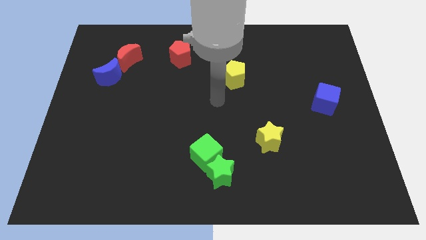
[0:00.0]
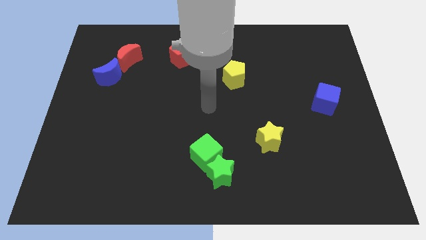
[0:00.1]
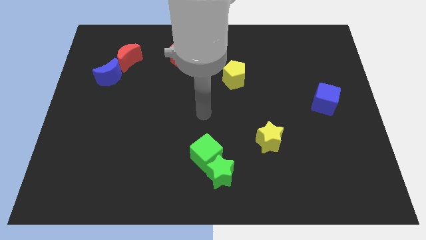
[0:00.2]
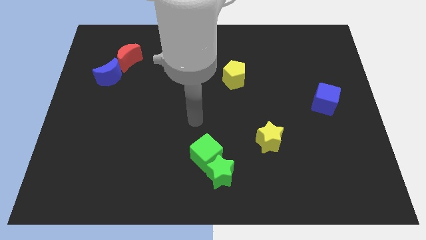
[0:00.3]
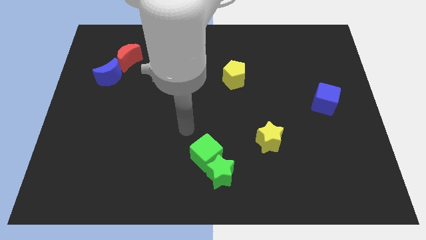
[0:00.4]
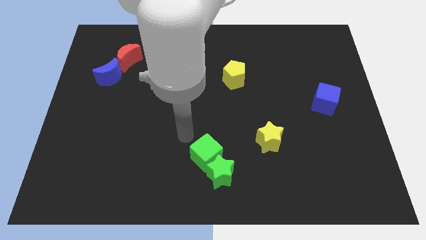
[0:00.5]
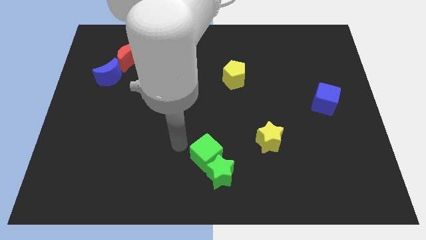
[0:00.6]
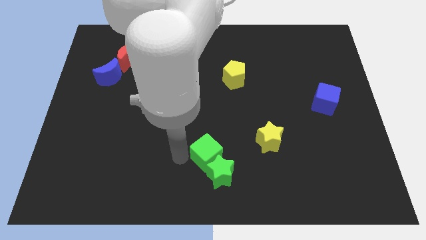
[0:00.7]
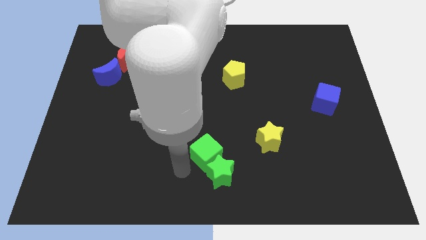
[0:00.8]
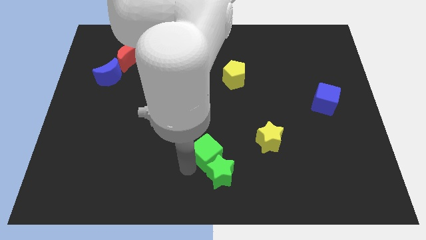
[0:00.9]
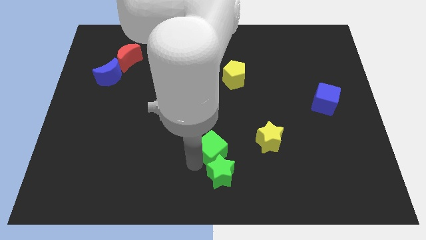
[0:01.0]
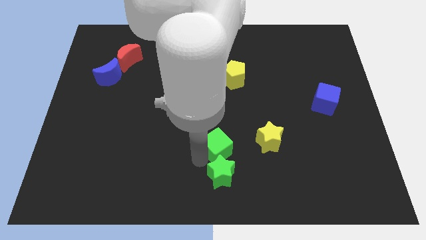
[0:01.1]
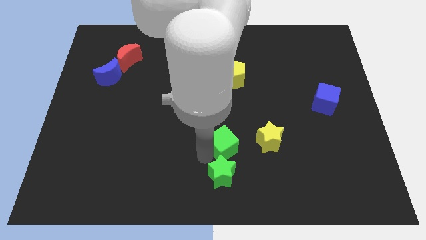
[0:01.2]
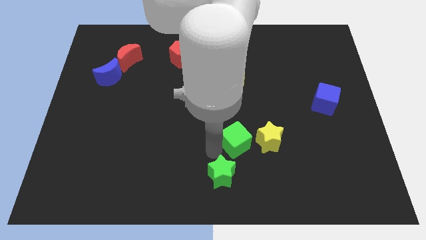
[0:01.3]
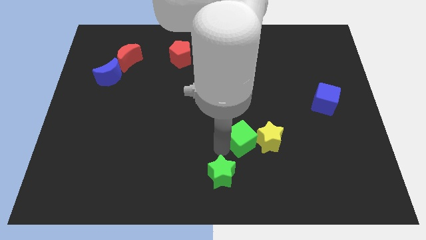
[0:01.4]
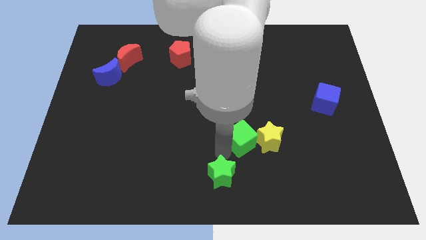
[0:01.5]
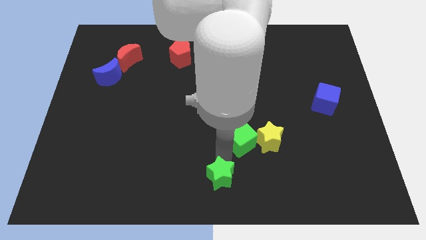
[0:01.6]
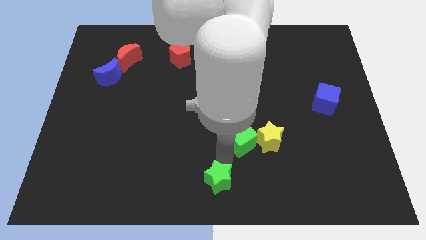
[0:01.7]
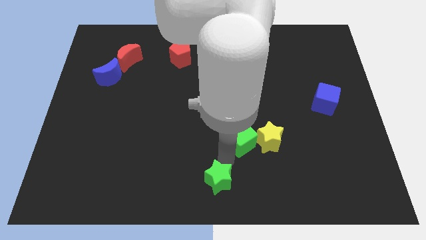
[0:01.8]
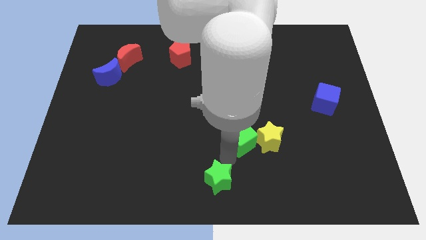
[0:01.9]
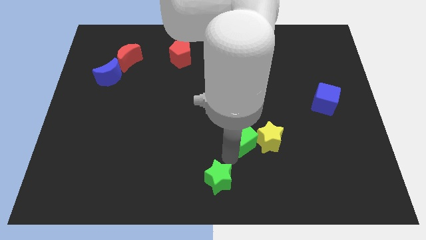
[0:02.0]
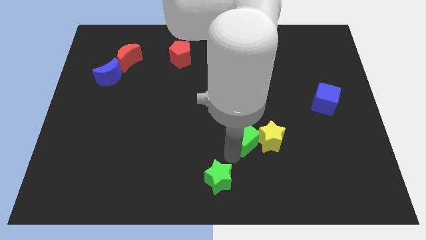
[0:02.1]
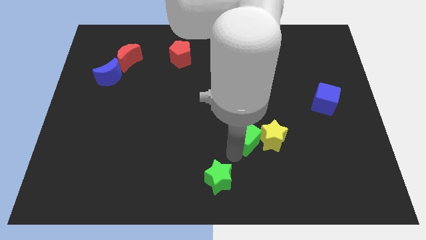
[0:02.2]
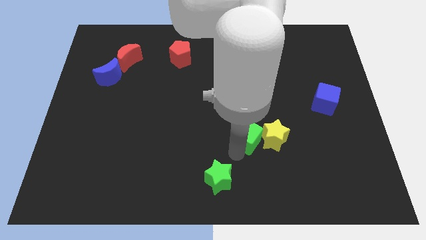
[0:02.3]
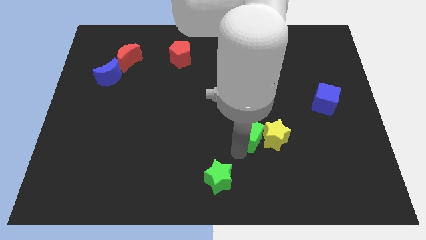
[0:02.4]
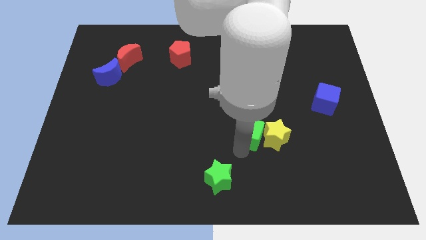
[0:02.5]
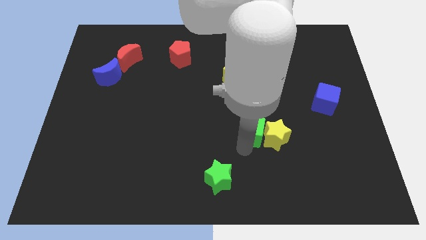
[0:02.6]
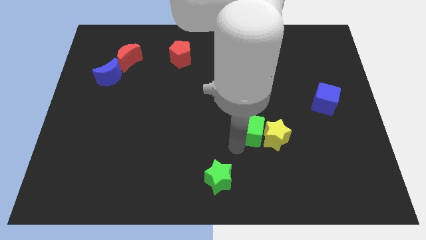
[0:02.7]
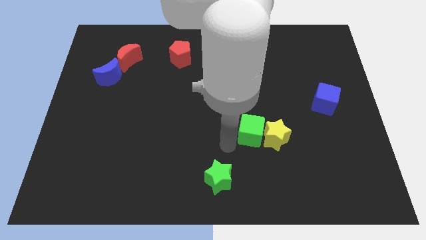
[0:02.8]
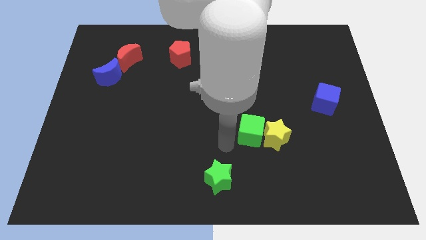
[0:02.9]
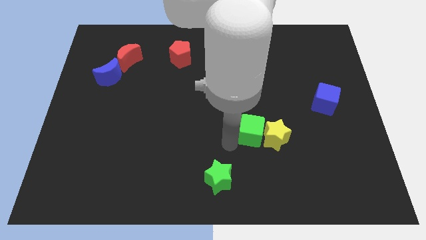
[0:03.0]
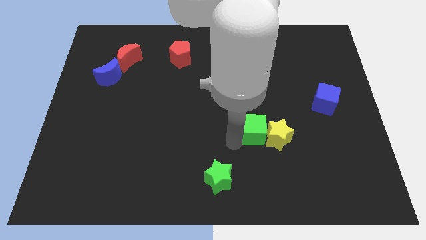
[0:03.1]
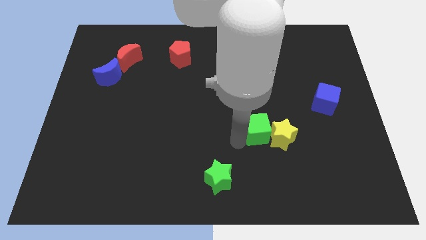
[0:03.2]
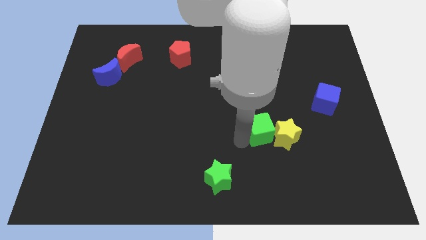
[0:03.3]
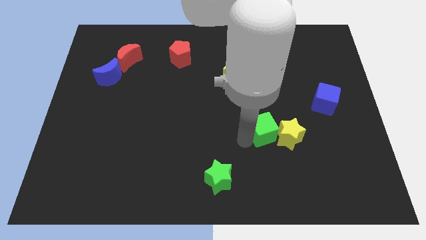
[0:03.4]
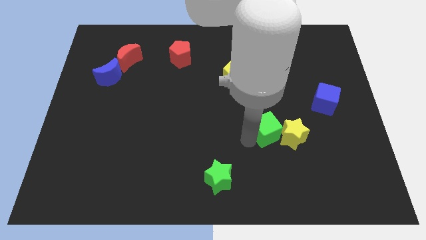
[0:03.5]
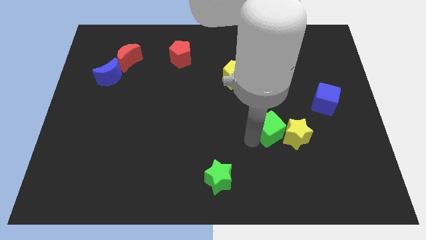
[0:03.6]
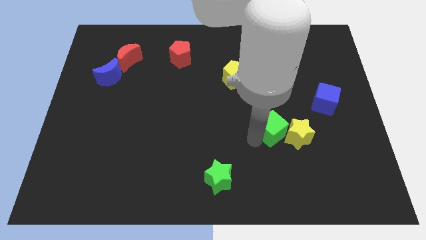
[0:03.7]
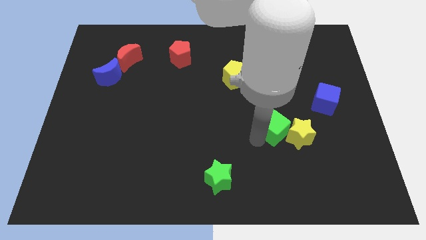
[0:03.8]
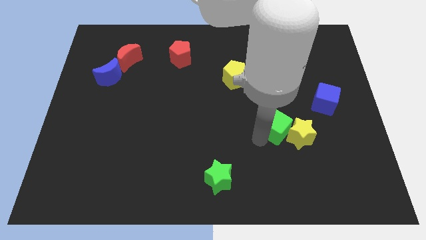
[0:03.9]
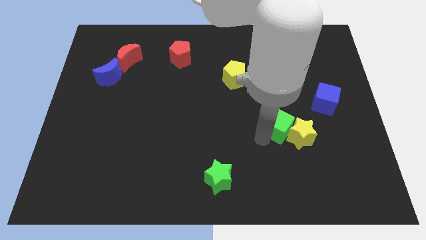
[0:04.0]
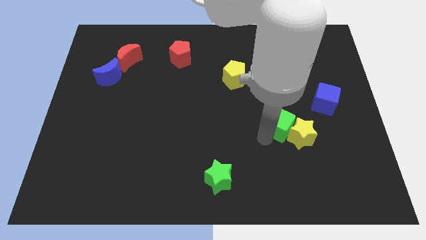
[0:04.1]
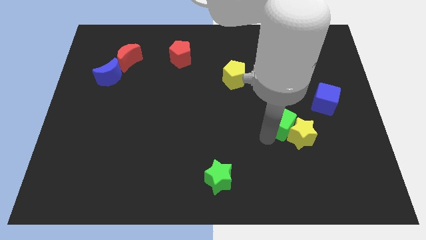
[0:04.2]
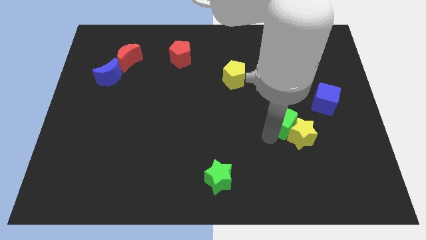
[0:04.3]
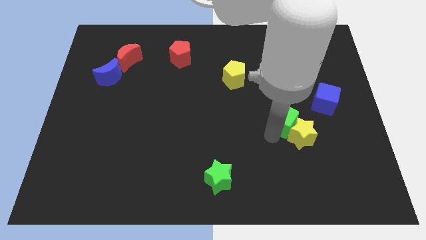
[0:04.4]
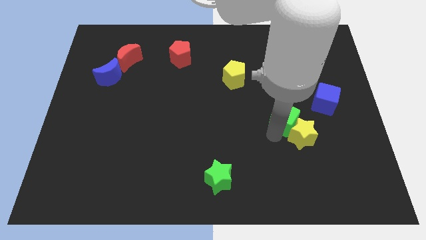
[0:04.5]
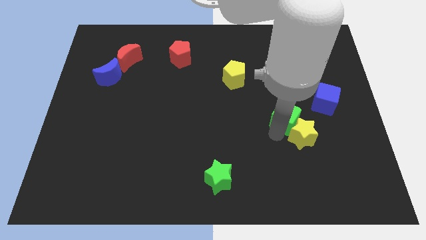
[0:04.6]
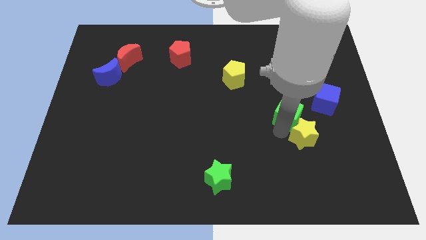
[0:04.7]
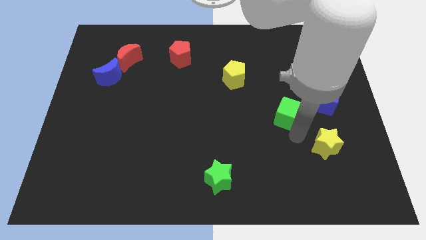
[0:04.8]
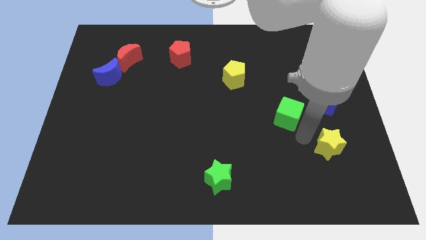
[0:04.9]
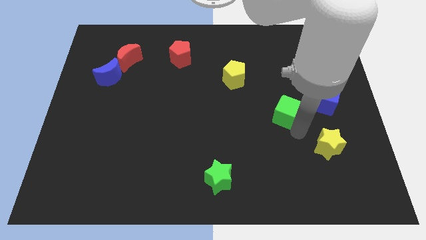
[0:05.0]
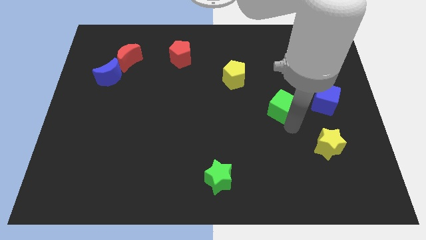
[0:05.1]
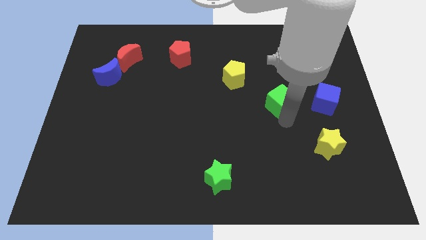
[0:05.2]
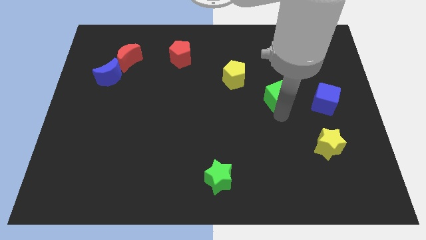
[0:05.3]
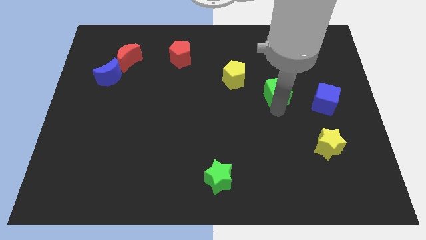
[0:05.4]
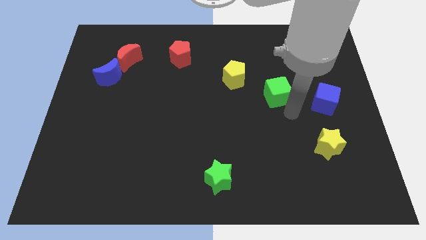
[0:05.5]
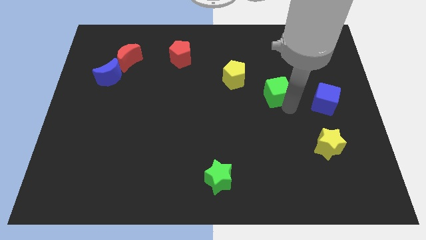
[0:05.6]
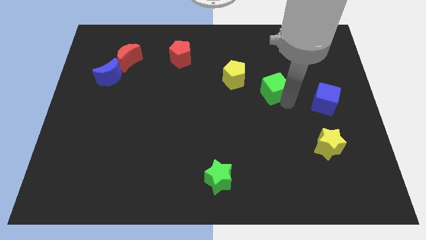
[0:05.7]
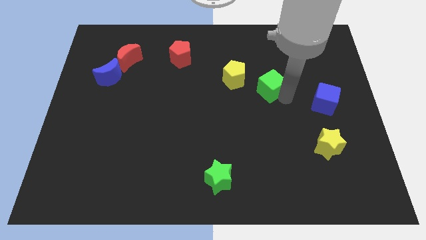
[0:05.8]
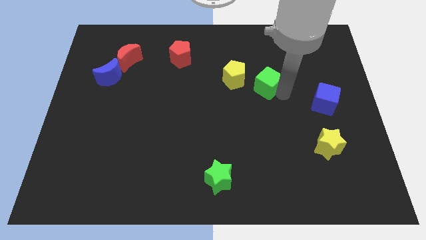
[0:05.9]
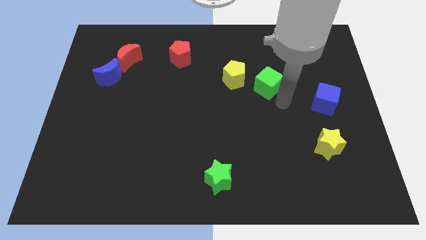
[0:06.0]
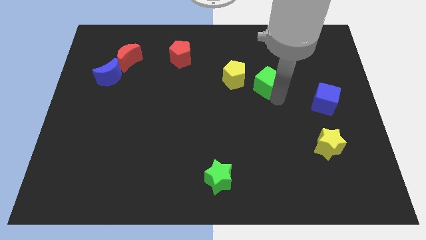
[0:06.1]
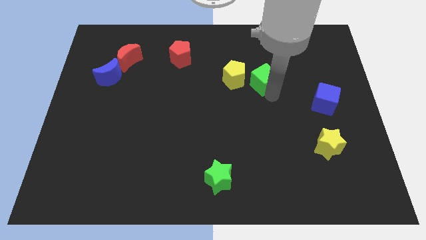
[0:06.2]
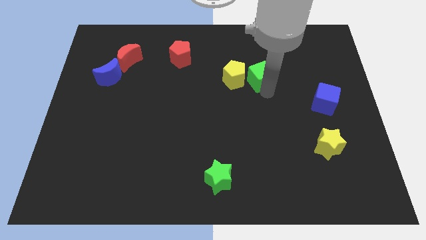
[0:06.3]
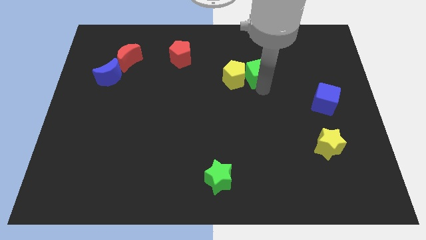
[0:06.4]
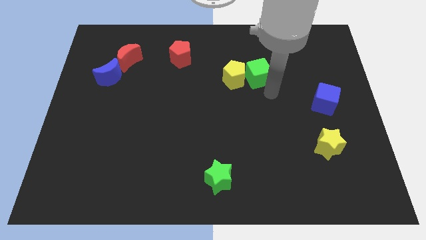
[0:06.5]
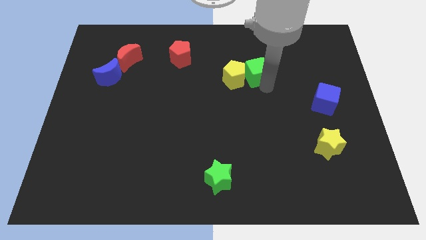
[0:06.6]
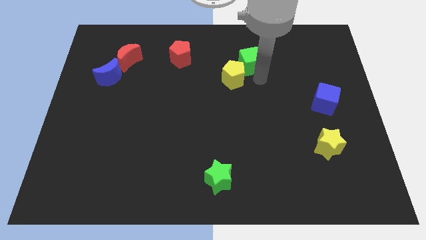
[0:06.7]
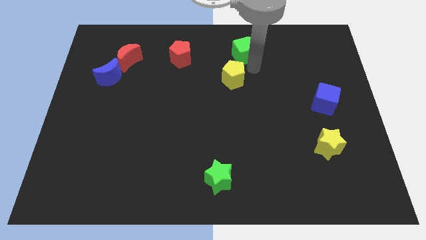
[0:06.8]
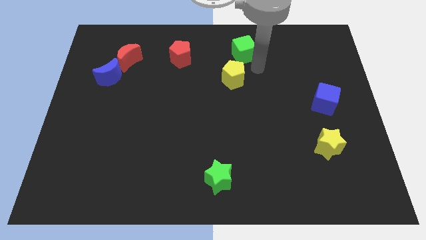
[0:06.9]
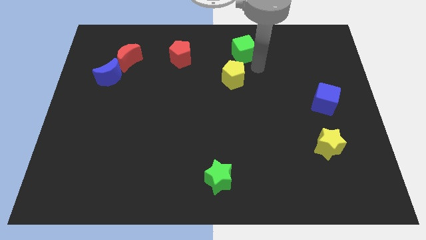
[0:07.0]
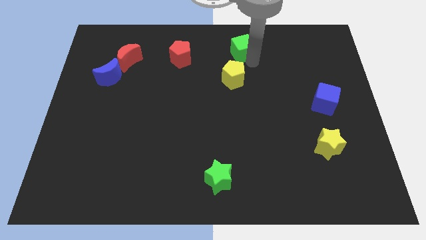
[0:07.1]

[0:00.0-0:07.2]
put the green cube to the top side
